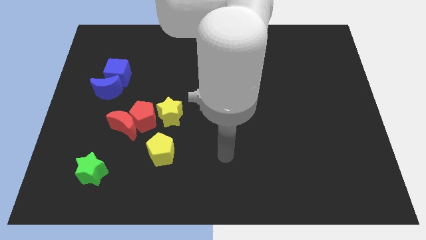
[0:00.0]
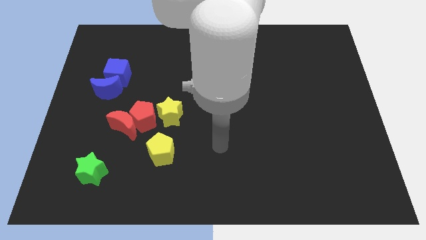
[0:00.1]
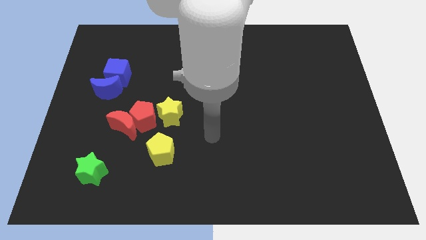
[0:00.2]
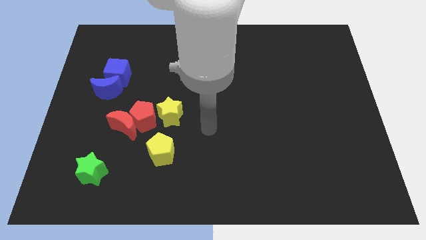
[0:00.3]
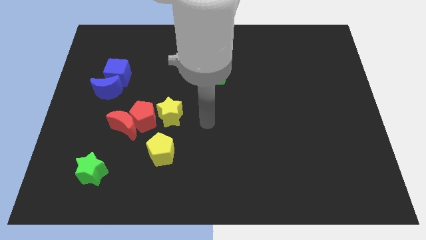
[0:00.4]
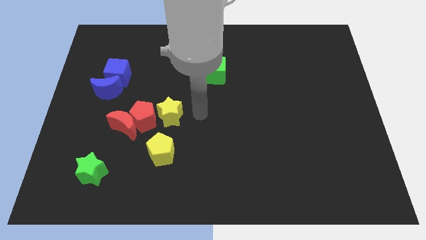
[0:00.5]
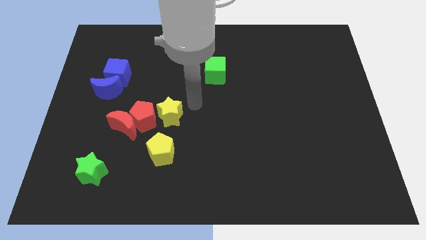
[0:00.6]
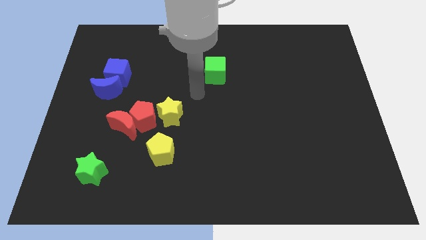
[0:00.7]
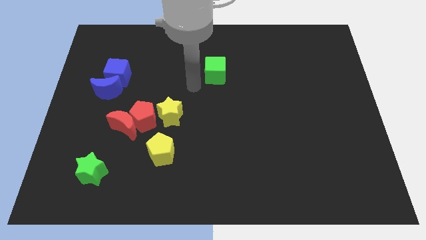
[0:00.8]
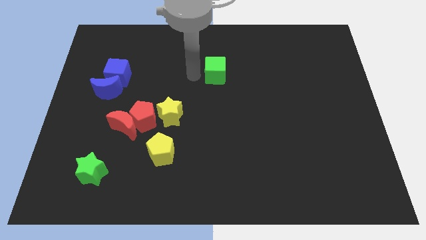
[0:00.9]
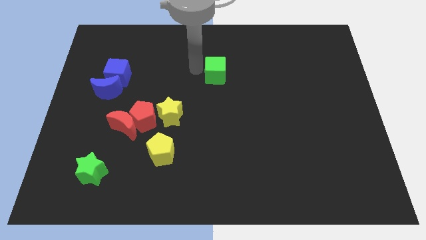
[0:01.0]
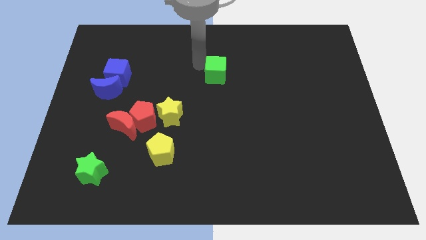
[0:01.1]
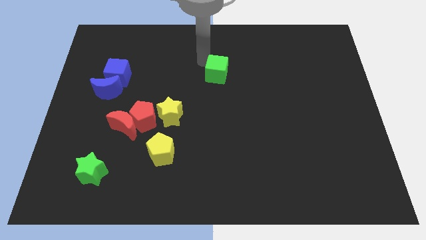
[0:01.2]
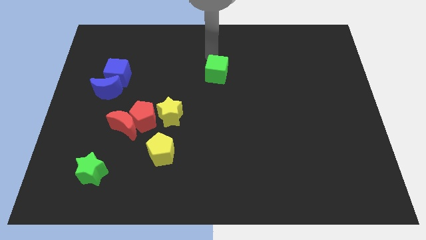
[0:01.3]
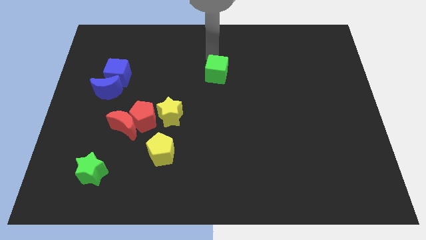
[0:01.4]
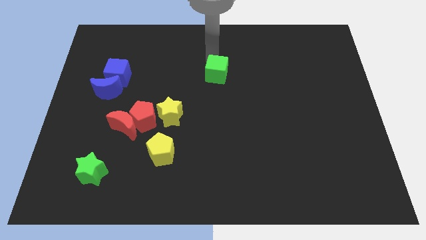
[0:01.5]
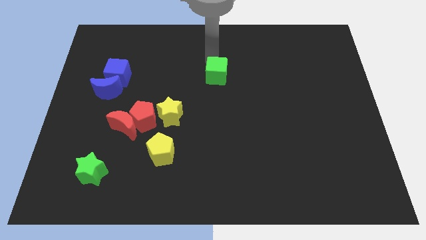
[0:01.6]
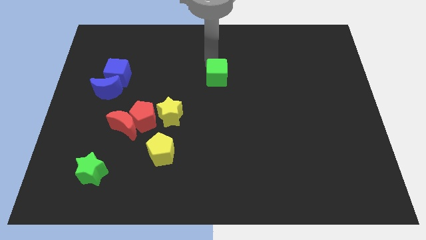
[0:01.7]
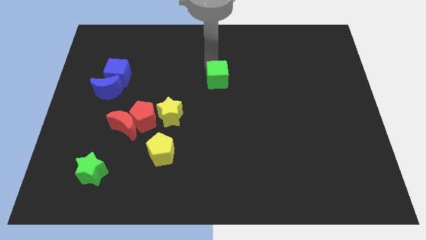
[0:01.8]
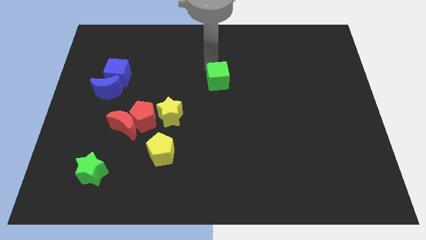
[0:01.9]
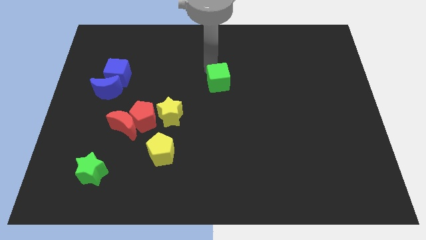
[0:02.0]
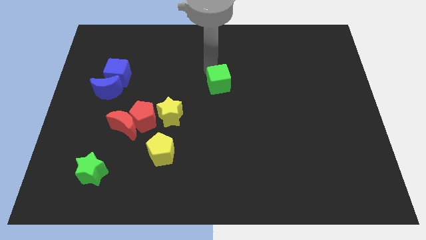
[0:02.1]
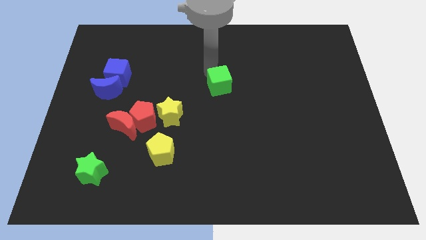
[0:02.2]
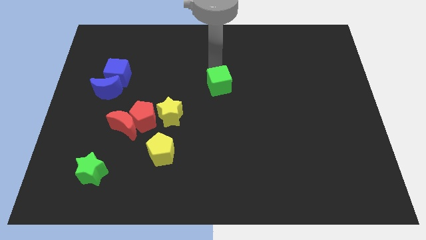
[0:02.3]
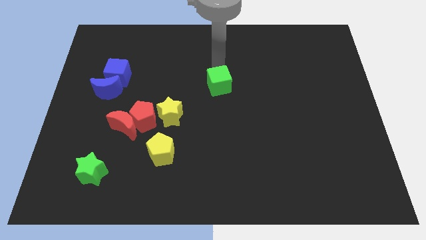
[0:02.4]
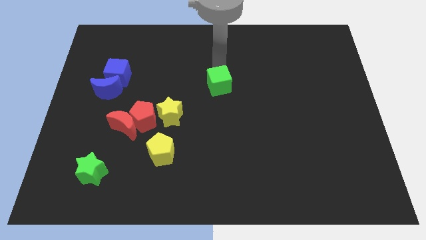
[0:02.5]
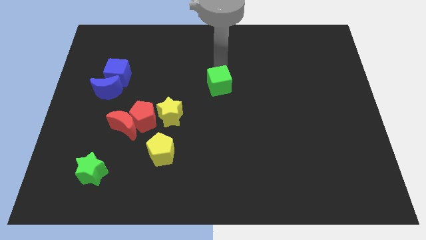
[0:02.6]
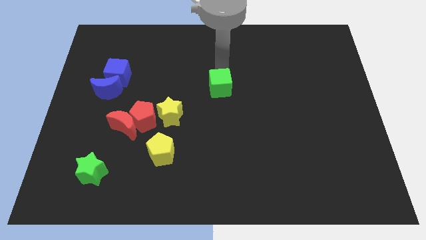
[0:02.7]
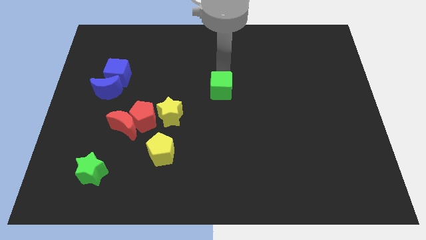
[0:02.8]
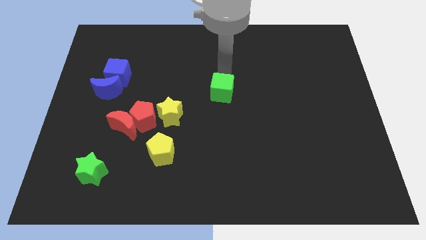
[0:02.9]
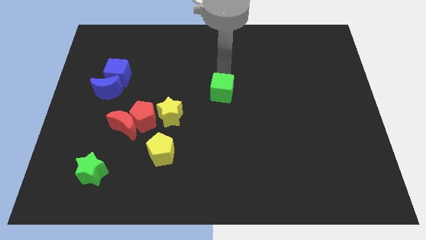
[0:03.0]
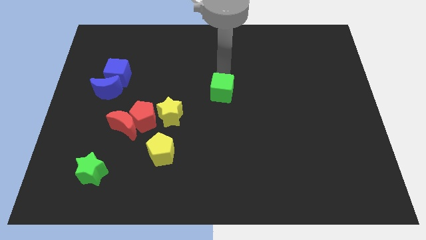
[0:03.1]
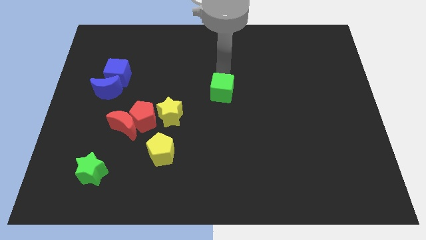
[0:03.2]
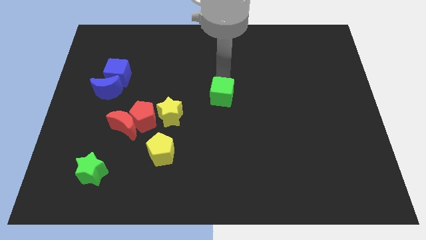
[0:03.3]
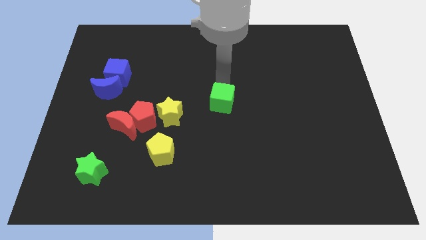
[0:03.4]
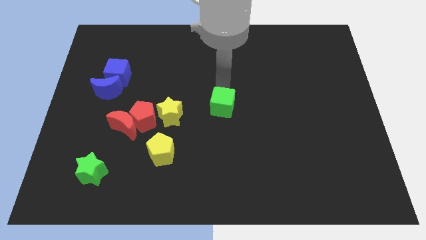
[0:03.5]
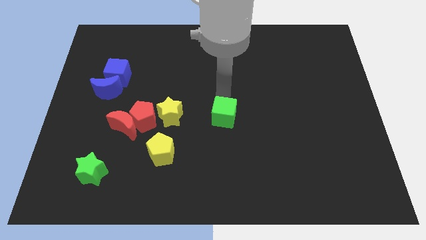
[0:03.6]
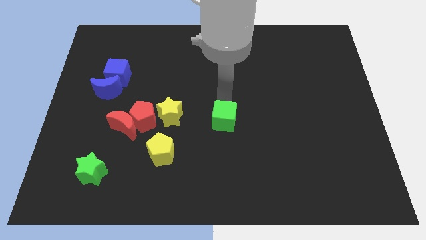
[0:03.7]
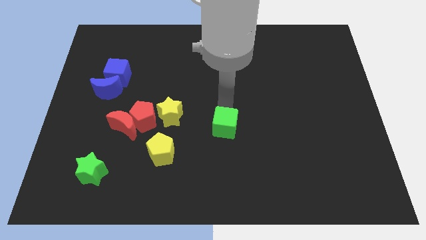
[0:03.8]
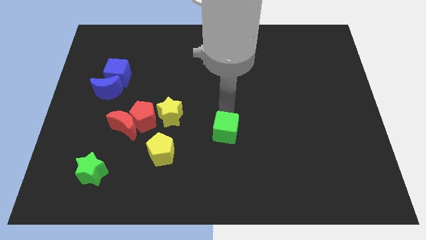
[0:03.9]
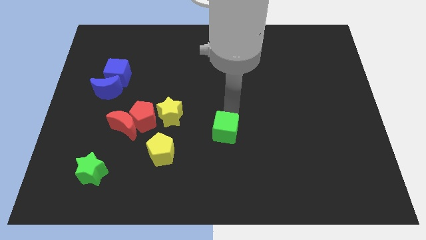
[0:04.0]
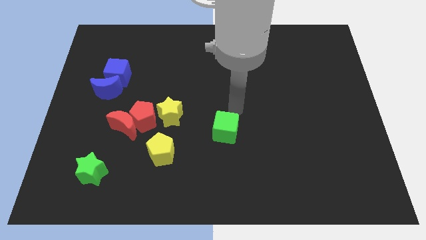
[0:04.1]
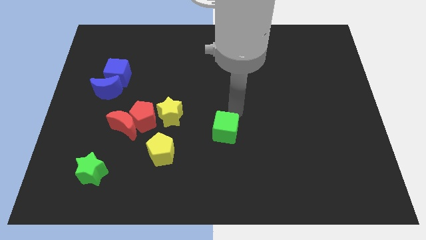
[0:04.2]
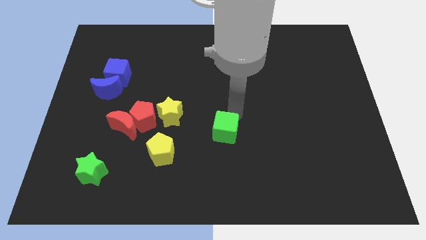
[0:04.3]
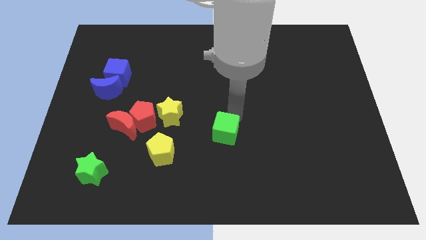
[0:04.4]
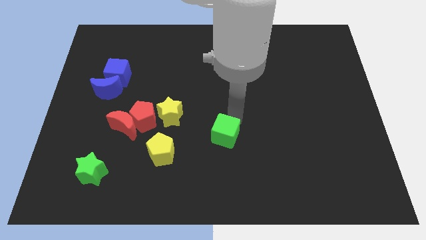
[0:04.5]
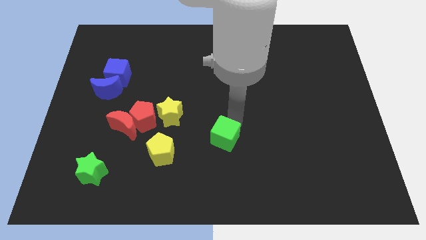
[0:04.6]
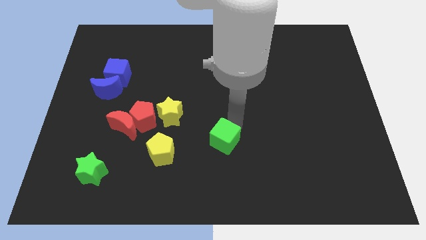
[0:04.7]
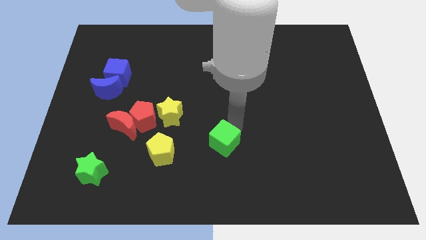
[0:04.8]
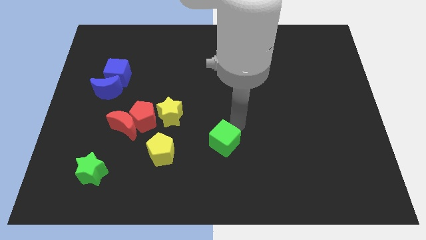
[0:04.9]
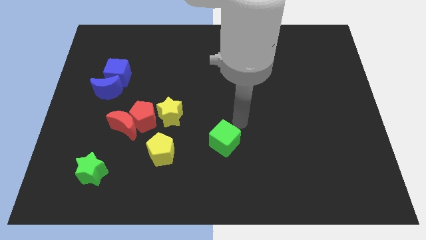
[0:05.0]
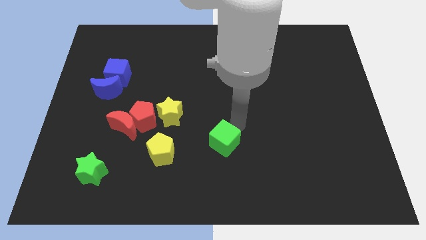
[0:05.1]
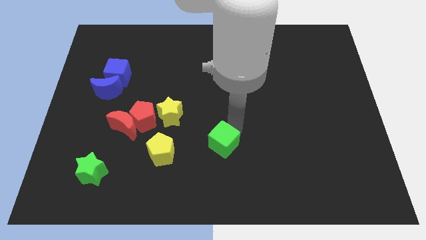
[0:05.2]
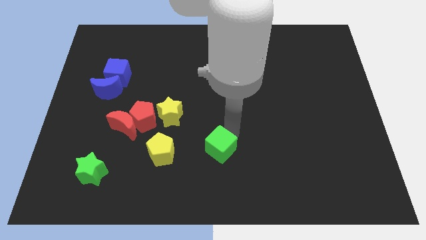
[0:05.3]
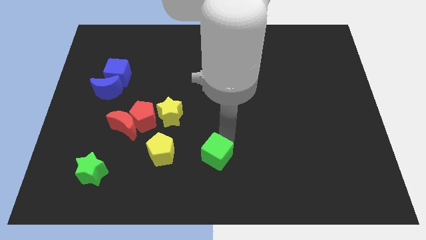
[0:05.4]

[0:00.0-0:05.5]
put the green cube to the bottom

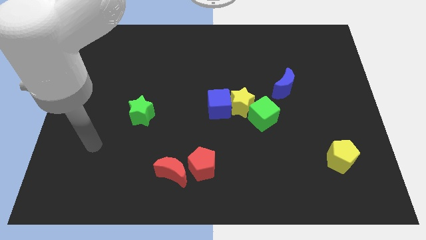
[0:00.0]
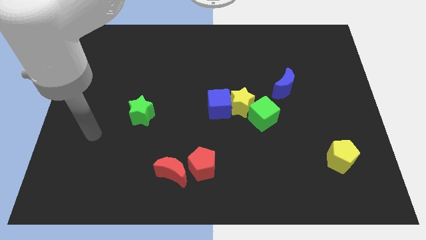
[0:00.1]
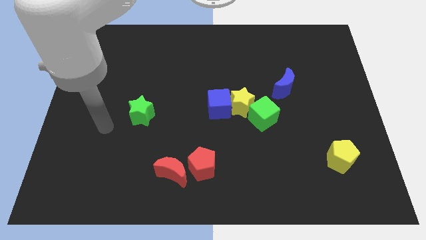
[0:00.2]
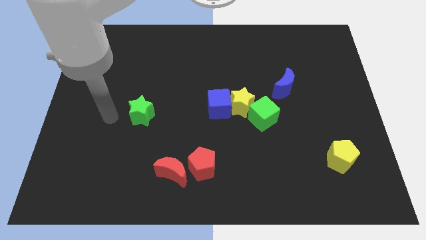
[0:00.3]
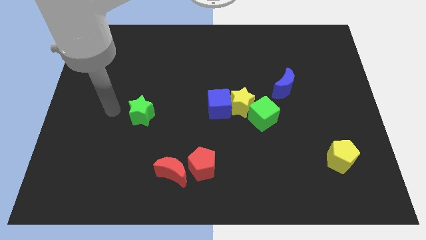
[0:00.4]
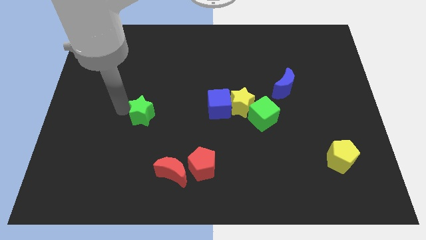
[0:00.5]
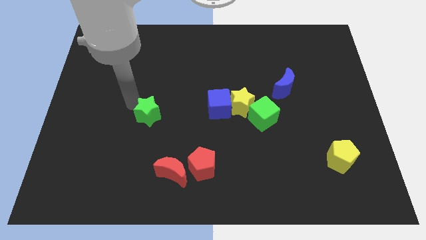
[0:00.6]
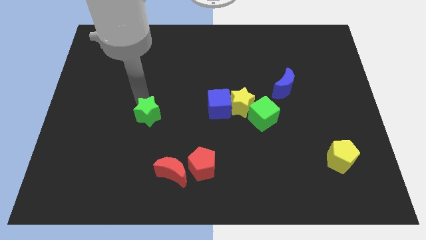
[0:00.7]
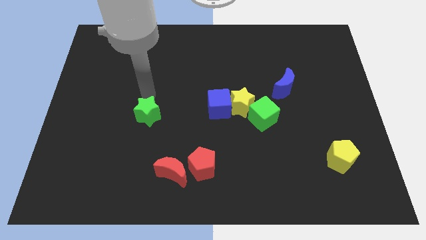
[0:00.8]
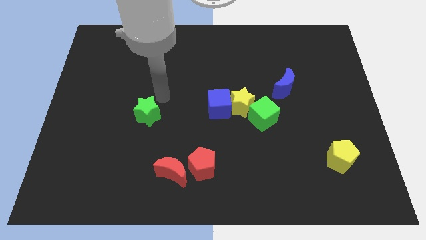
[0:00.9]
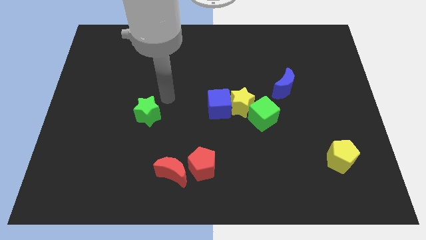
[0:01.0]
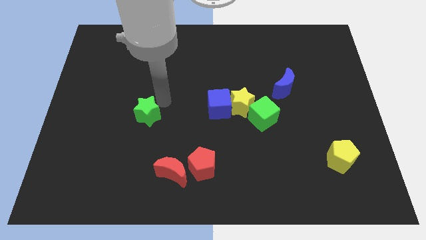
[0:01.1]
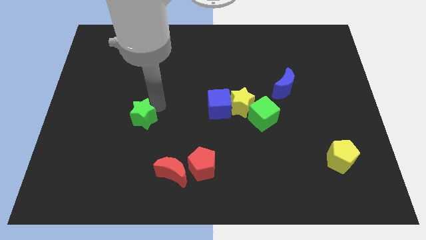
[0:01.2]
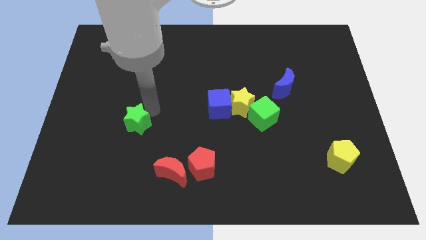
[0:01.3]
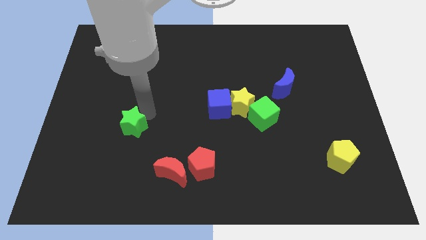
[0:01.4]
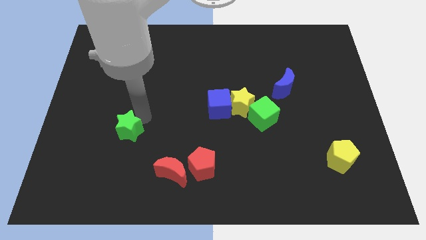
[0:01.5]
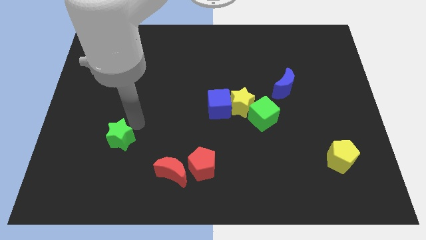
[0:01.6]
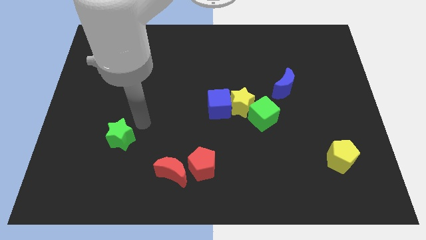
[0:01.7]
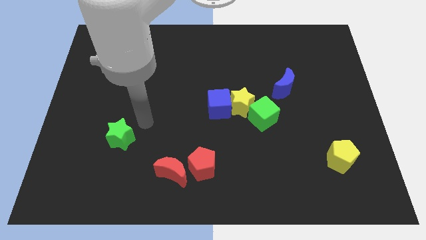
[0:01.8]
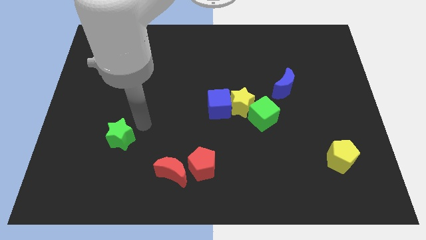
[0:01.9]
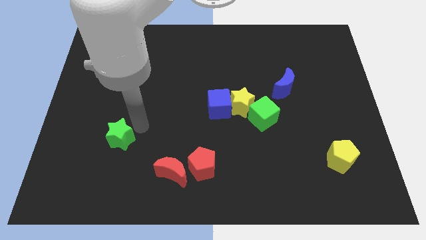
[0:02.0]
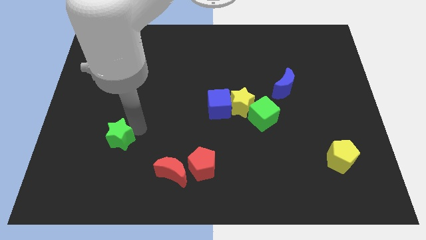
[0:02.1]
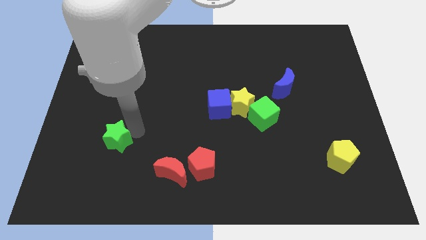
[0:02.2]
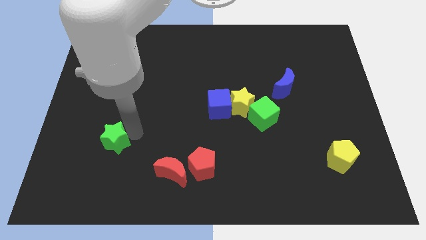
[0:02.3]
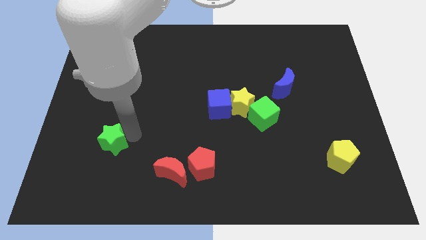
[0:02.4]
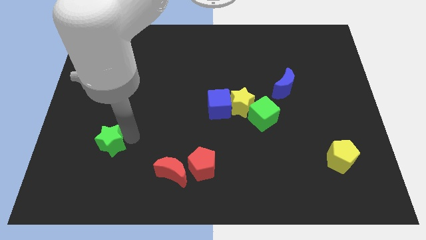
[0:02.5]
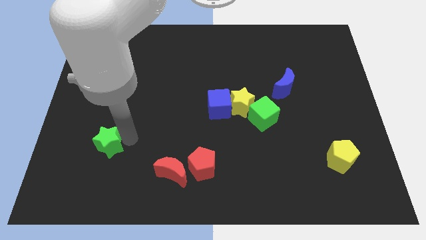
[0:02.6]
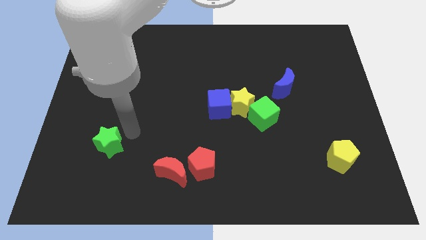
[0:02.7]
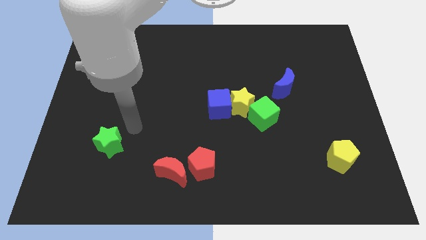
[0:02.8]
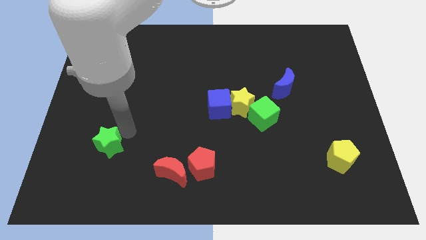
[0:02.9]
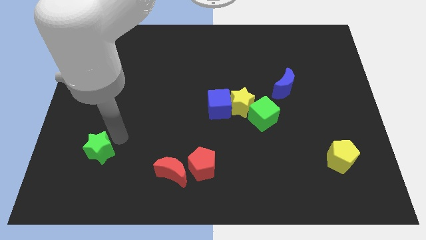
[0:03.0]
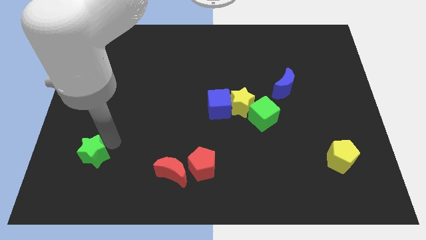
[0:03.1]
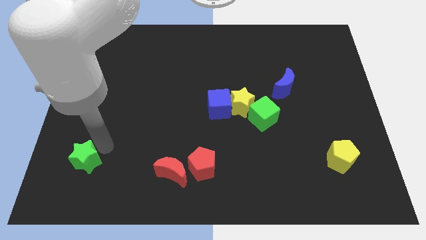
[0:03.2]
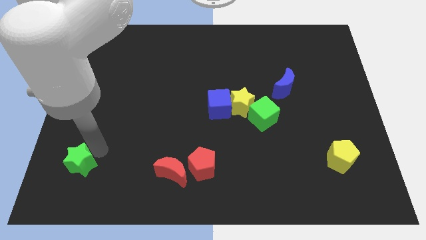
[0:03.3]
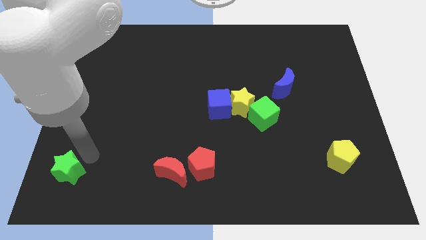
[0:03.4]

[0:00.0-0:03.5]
push the green star to the bottom left
